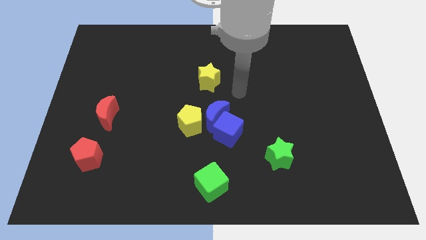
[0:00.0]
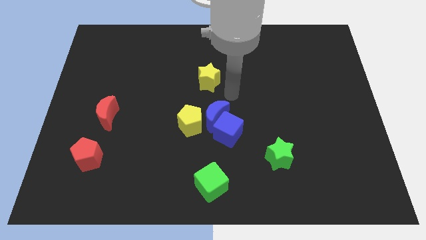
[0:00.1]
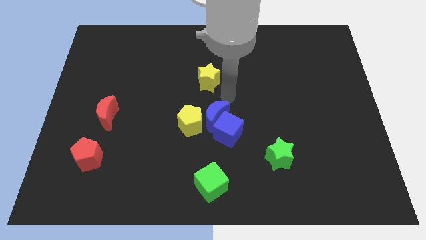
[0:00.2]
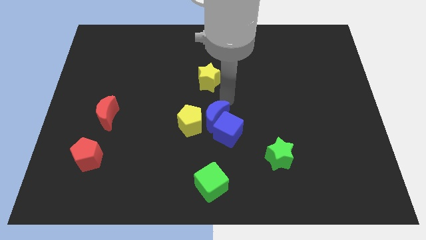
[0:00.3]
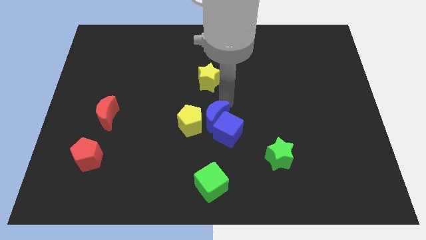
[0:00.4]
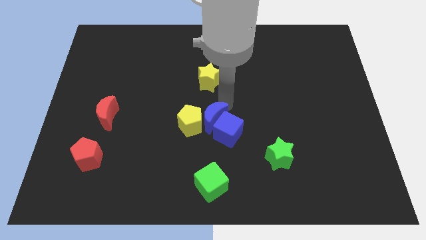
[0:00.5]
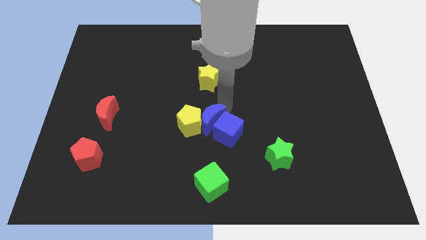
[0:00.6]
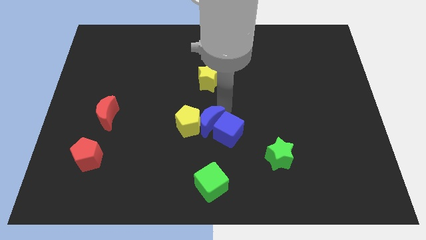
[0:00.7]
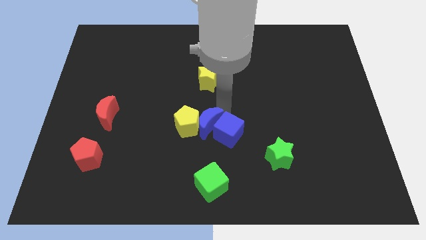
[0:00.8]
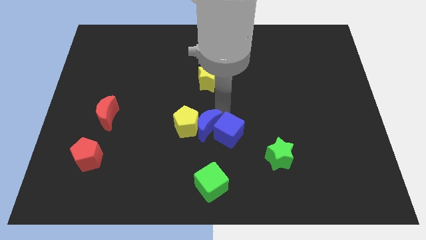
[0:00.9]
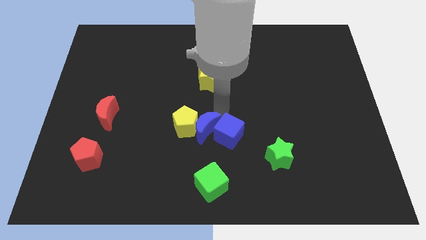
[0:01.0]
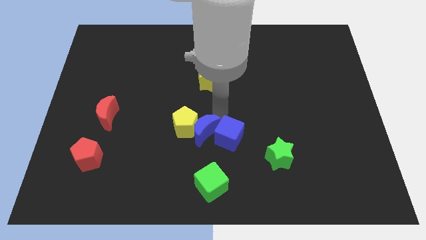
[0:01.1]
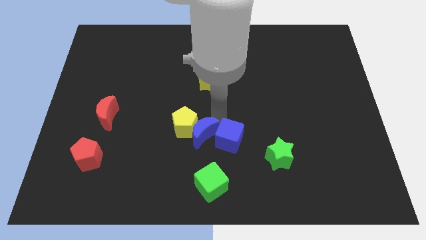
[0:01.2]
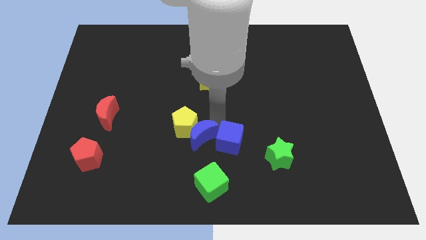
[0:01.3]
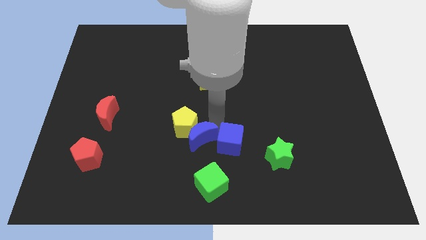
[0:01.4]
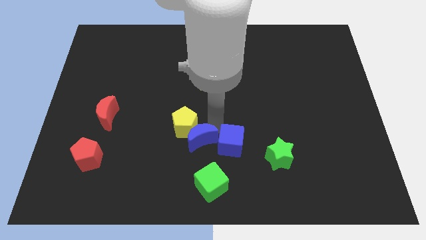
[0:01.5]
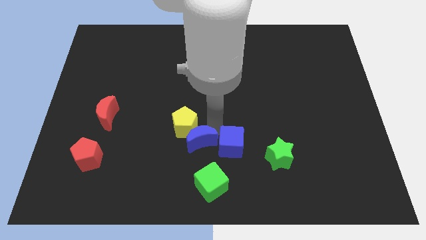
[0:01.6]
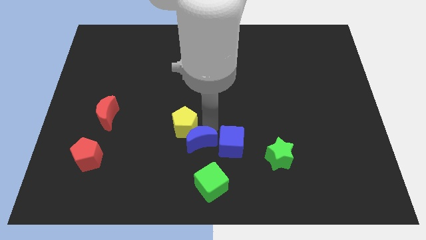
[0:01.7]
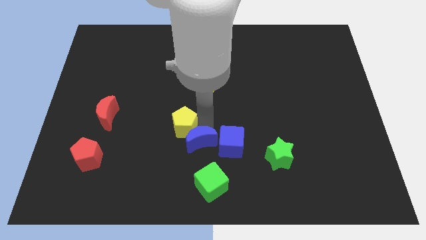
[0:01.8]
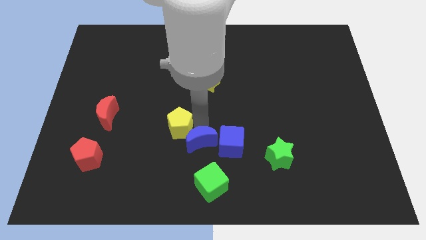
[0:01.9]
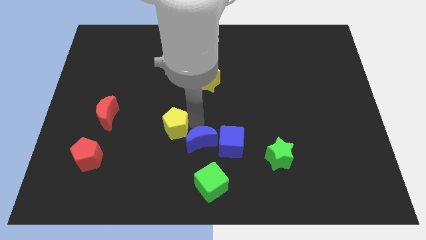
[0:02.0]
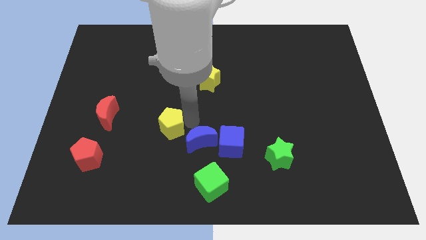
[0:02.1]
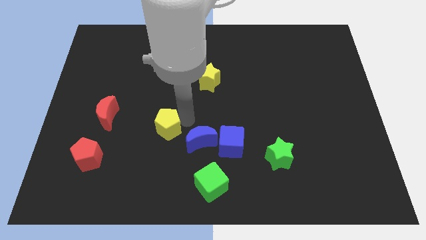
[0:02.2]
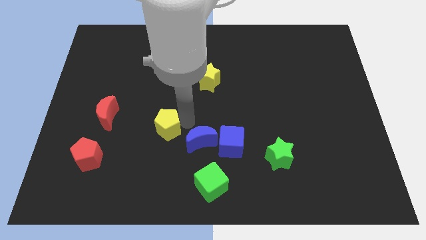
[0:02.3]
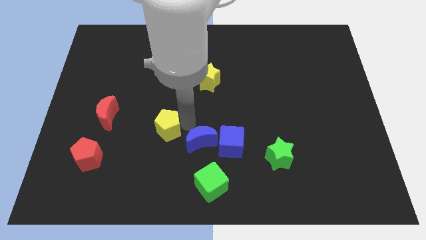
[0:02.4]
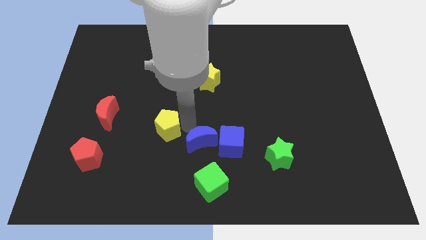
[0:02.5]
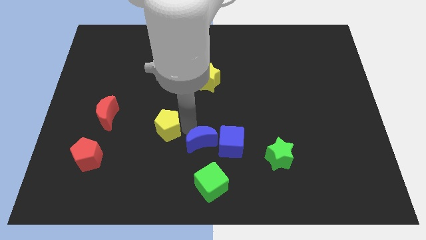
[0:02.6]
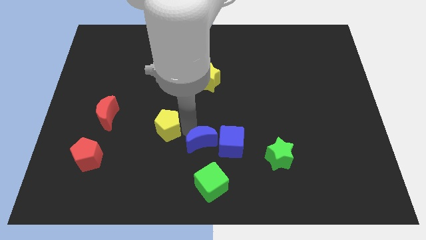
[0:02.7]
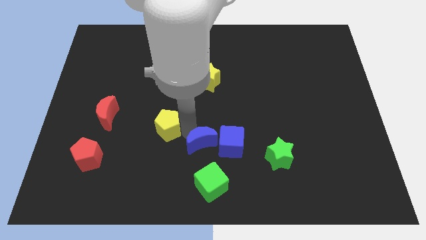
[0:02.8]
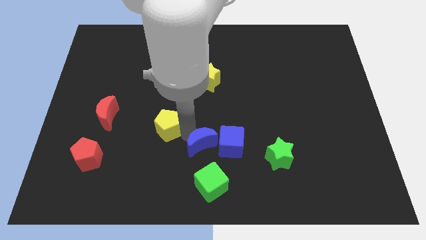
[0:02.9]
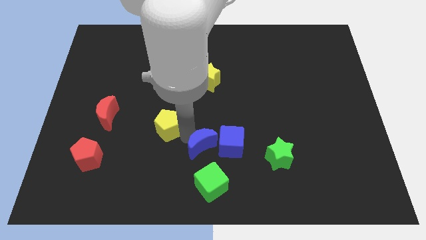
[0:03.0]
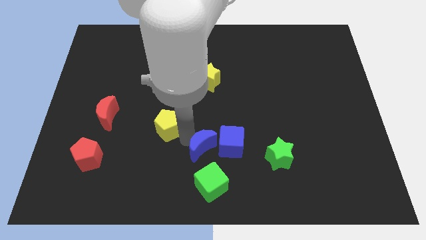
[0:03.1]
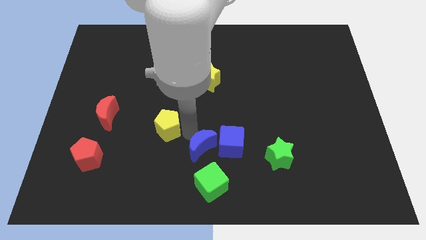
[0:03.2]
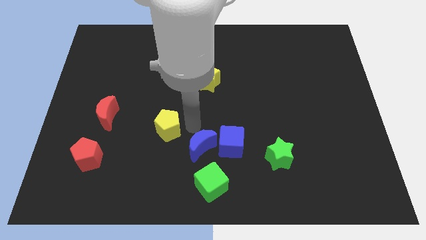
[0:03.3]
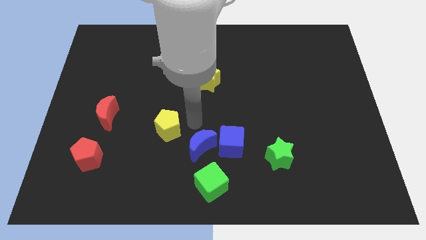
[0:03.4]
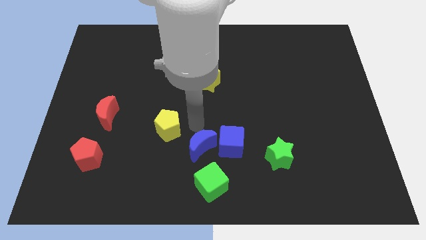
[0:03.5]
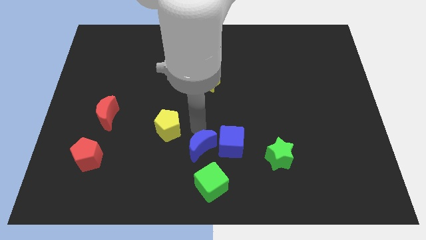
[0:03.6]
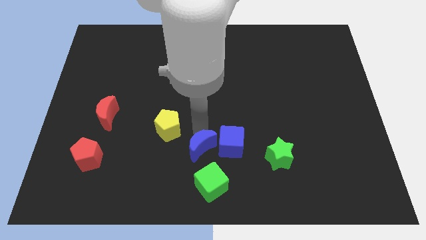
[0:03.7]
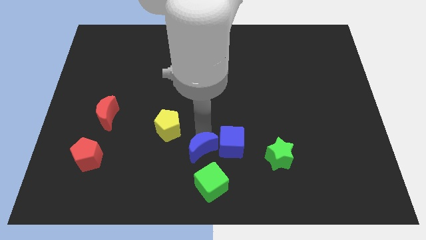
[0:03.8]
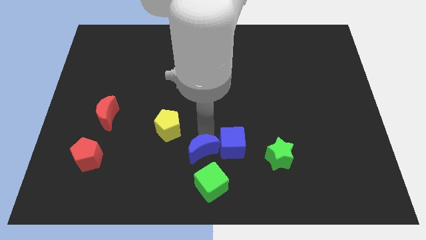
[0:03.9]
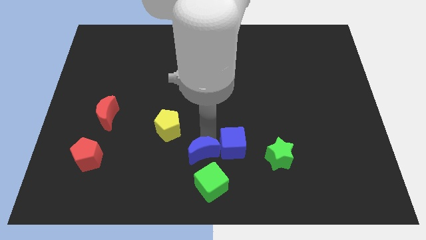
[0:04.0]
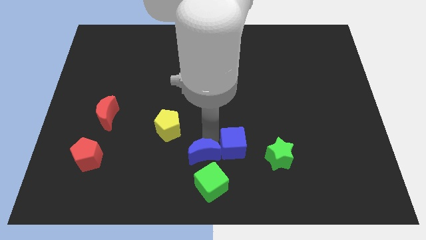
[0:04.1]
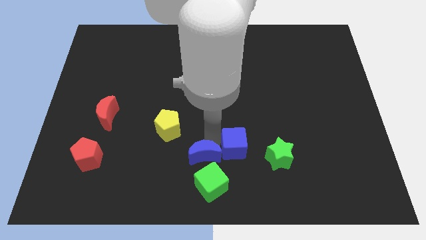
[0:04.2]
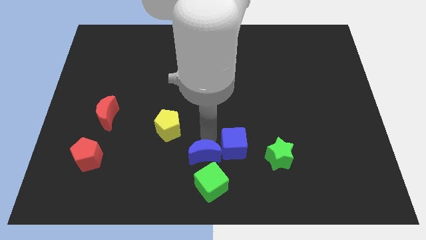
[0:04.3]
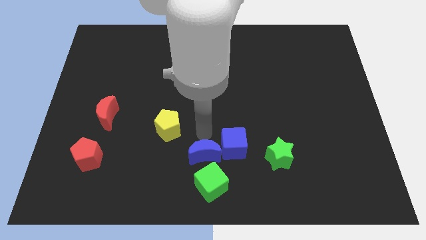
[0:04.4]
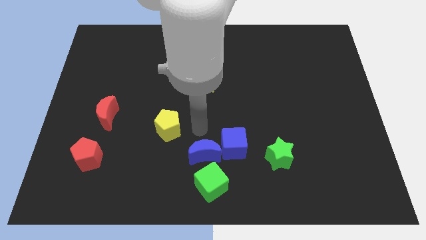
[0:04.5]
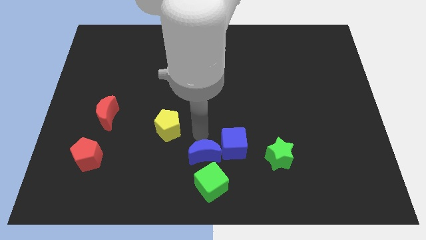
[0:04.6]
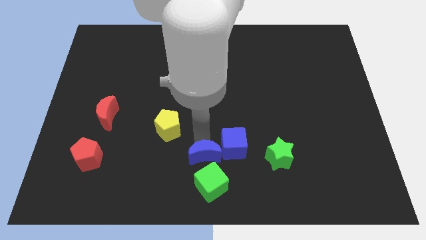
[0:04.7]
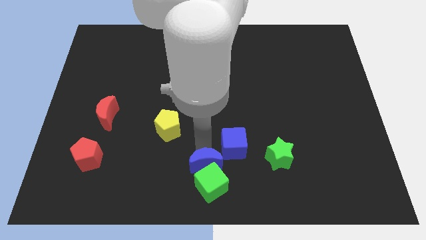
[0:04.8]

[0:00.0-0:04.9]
push the blue moon towards the green cube

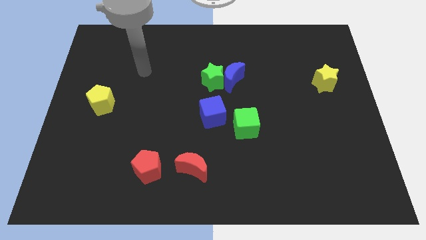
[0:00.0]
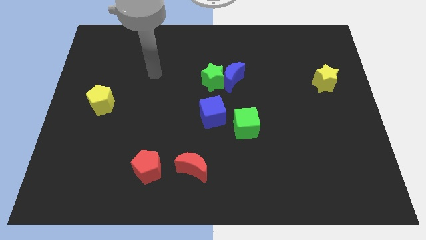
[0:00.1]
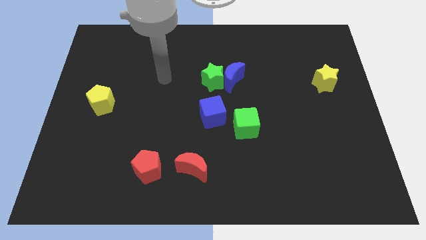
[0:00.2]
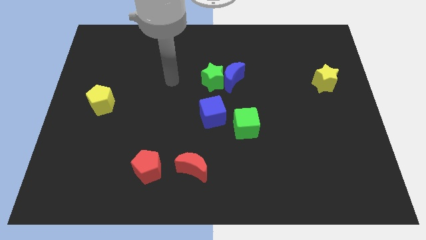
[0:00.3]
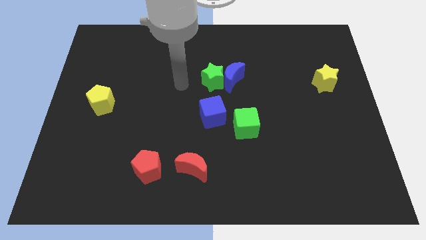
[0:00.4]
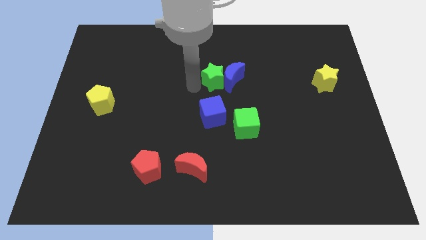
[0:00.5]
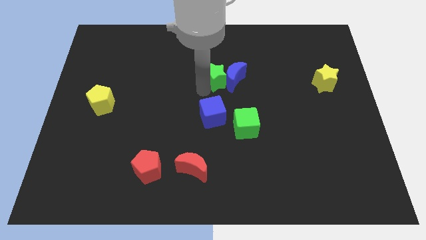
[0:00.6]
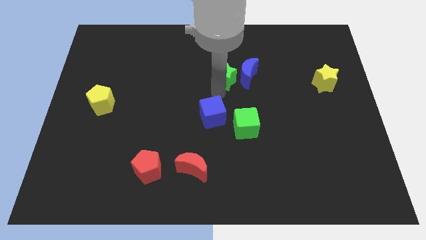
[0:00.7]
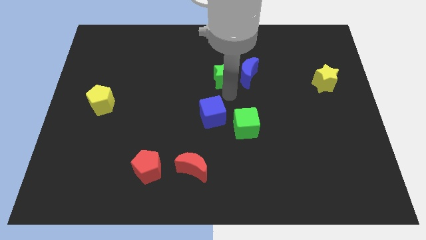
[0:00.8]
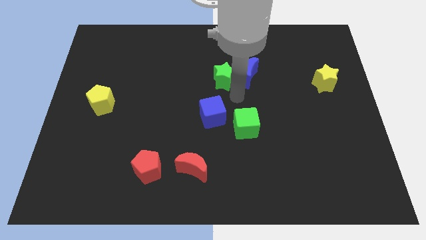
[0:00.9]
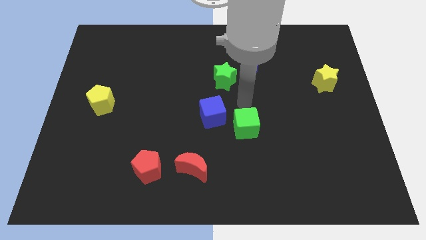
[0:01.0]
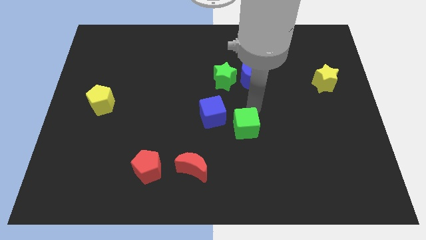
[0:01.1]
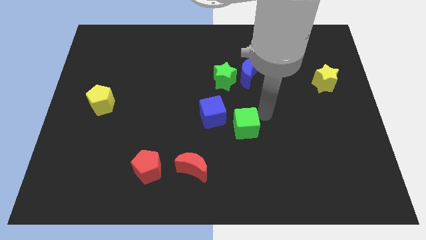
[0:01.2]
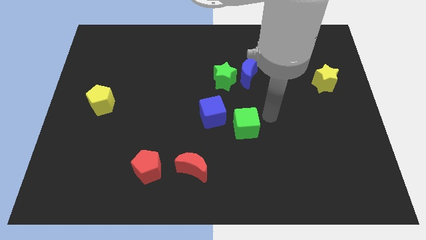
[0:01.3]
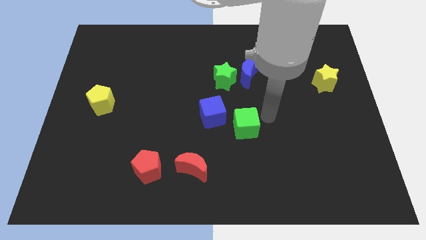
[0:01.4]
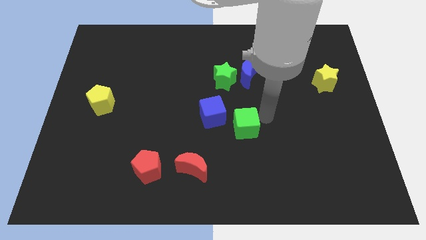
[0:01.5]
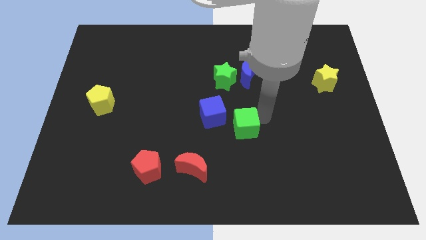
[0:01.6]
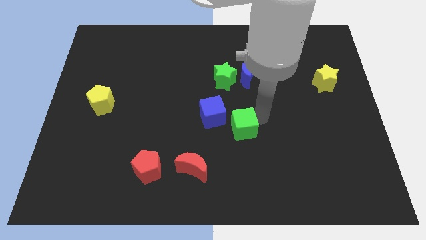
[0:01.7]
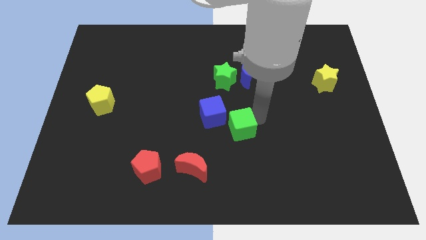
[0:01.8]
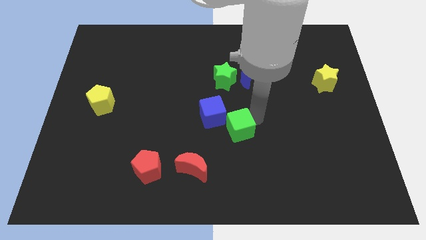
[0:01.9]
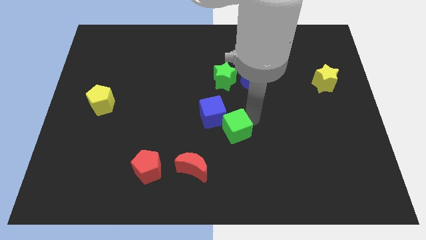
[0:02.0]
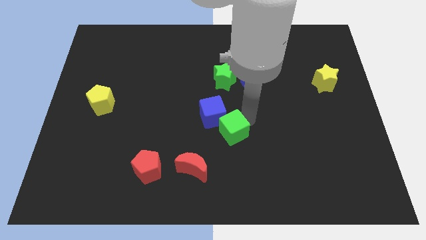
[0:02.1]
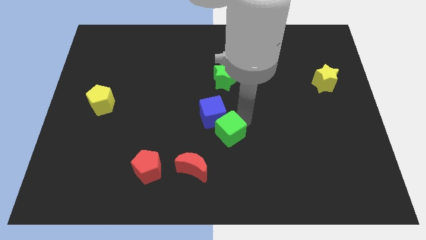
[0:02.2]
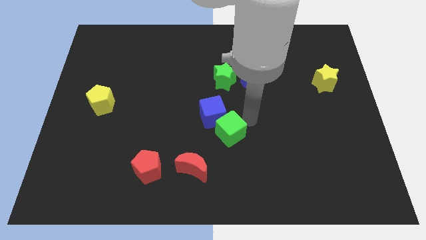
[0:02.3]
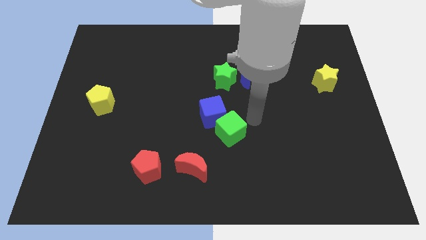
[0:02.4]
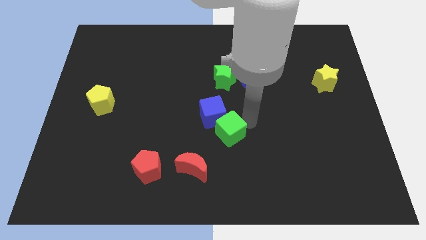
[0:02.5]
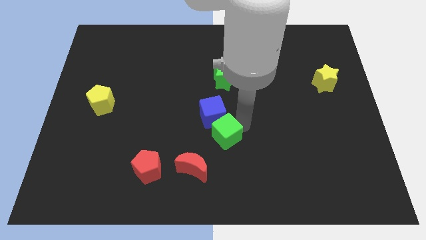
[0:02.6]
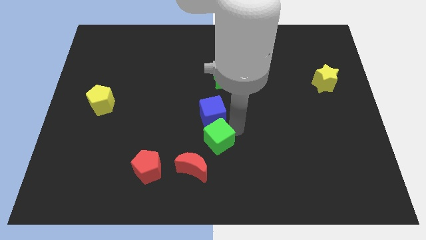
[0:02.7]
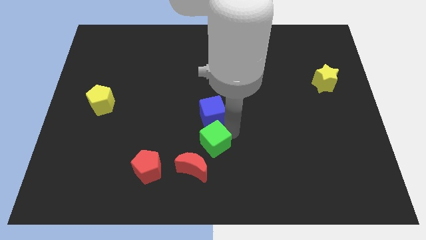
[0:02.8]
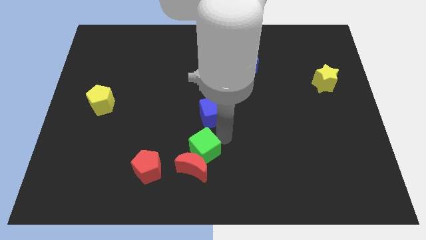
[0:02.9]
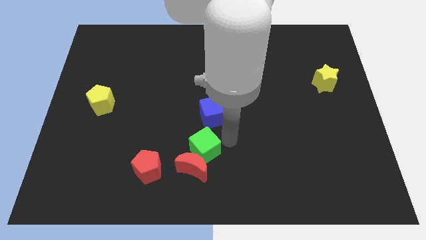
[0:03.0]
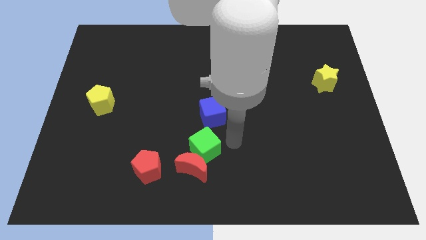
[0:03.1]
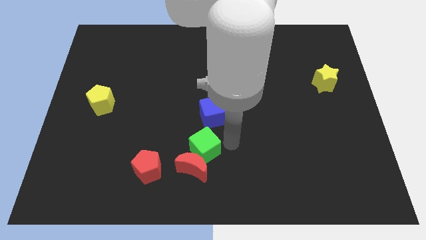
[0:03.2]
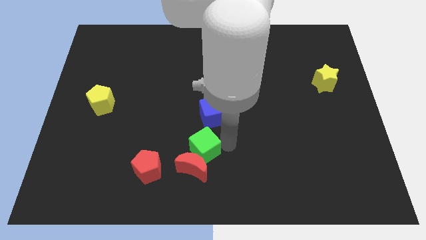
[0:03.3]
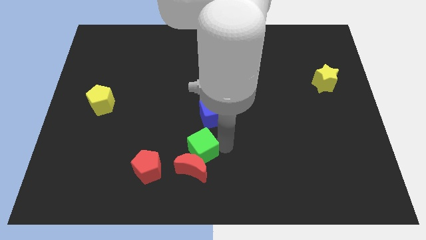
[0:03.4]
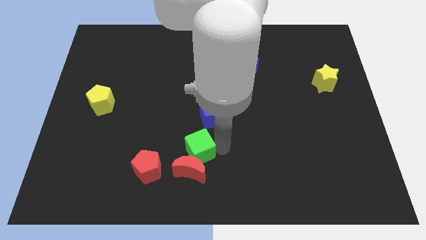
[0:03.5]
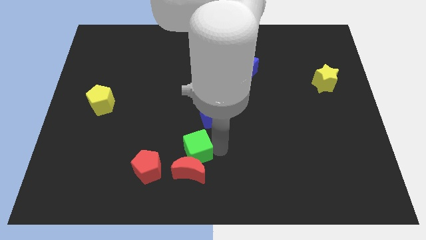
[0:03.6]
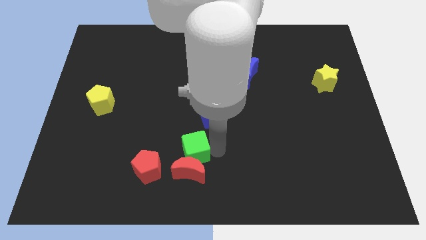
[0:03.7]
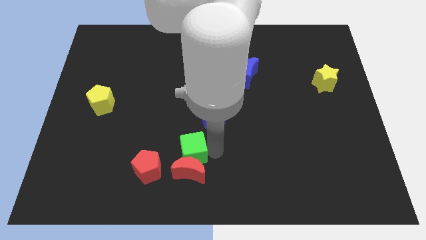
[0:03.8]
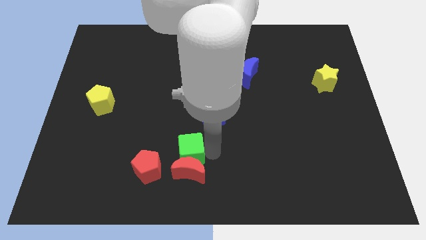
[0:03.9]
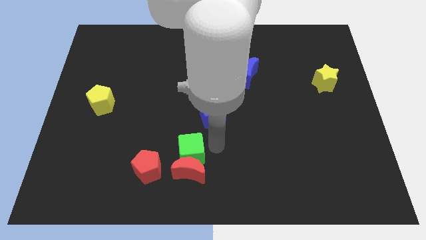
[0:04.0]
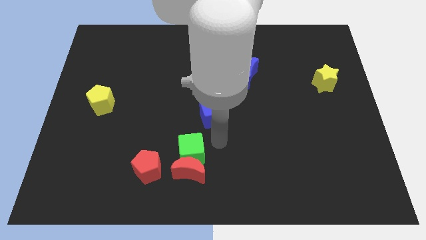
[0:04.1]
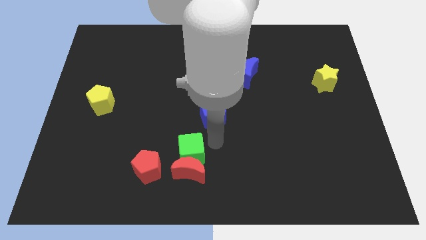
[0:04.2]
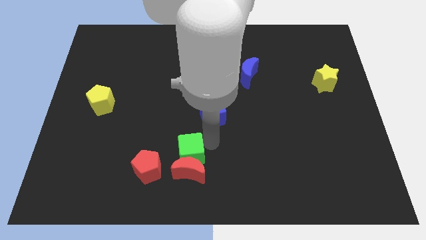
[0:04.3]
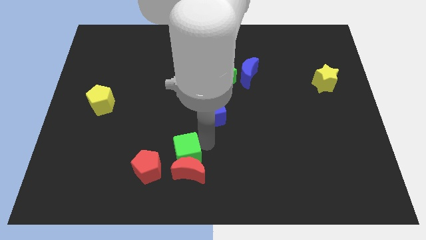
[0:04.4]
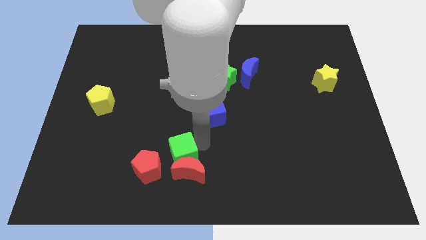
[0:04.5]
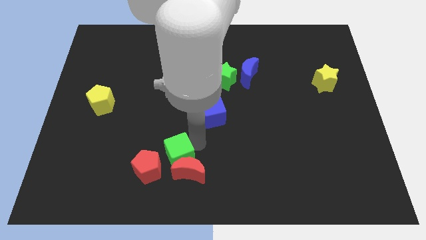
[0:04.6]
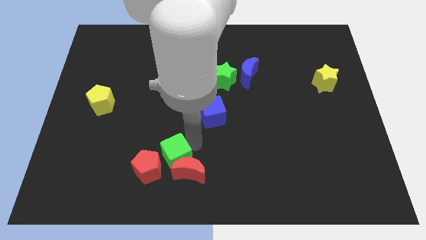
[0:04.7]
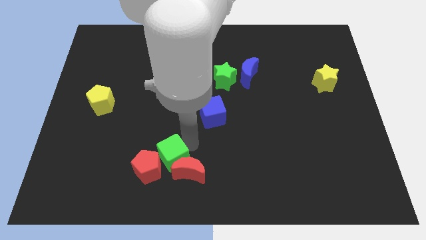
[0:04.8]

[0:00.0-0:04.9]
move the green cube towards the red pentagon
